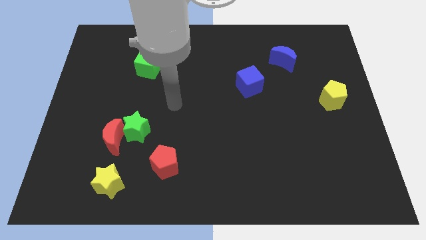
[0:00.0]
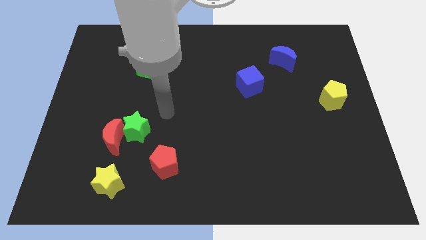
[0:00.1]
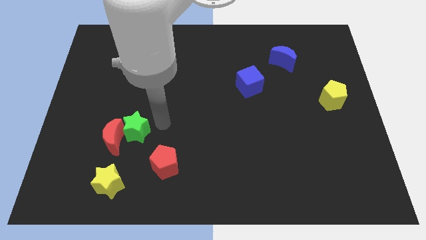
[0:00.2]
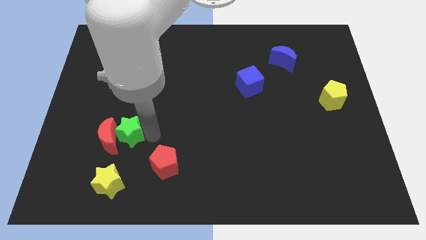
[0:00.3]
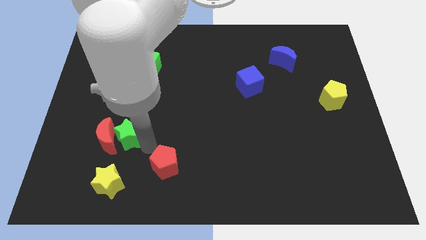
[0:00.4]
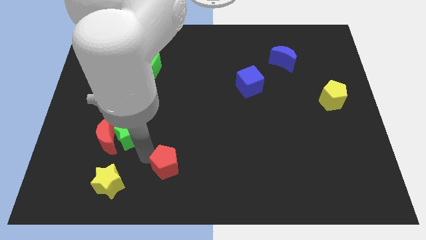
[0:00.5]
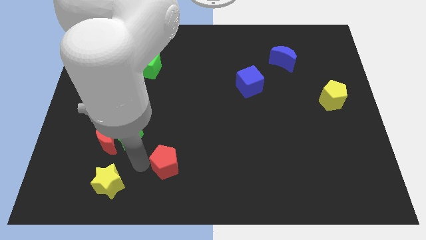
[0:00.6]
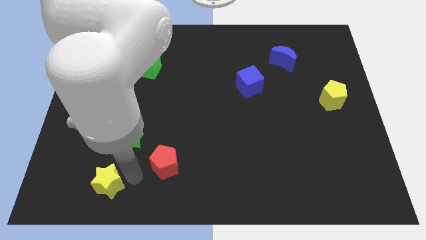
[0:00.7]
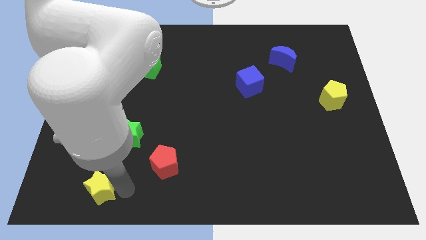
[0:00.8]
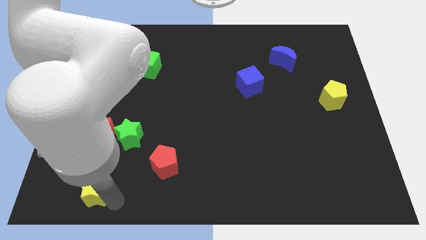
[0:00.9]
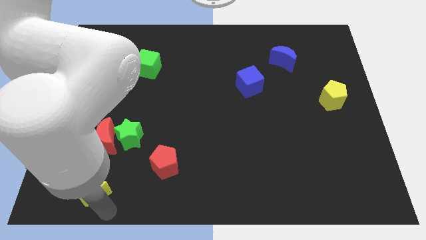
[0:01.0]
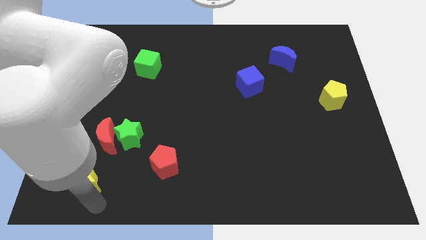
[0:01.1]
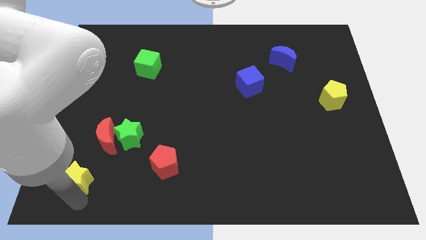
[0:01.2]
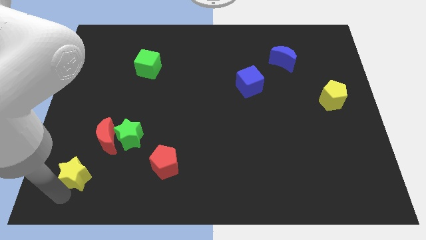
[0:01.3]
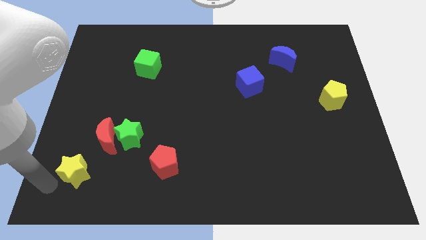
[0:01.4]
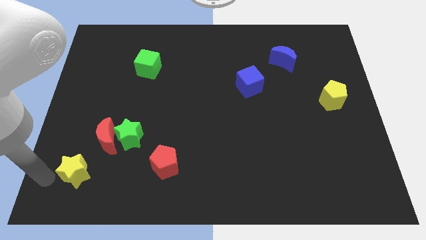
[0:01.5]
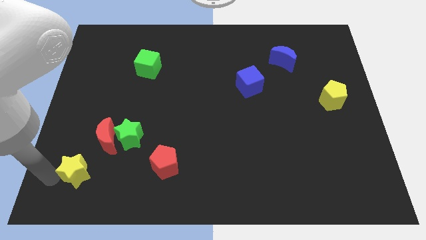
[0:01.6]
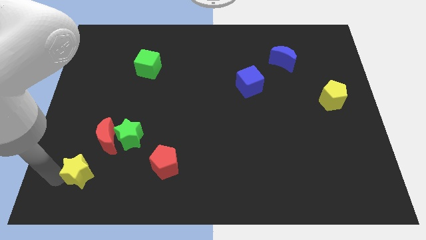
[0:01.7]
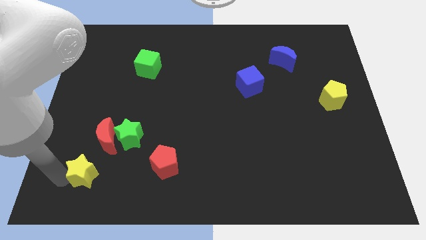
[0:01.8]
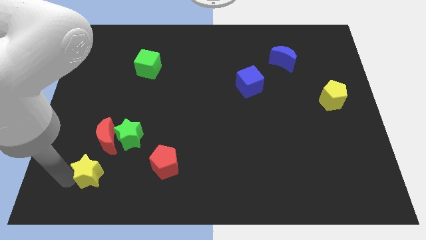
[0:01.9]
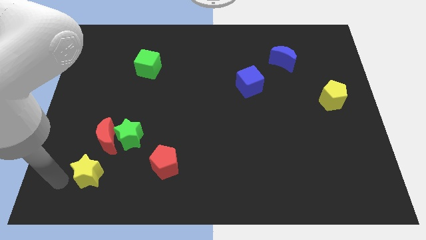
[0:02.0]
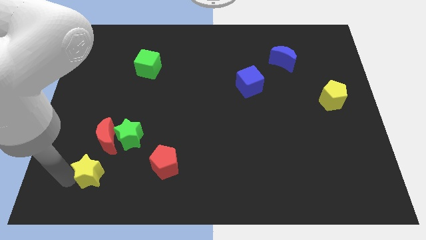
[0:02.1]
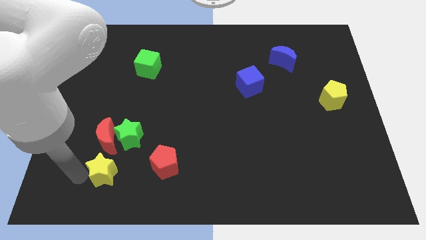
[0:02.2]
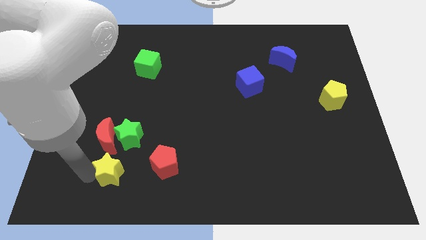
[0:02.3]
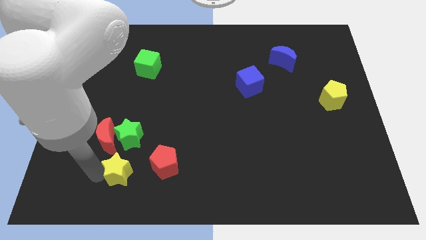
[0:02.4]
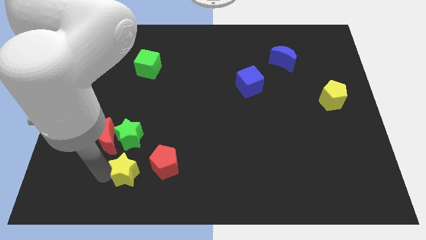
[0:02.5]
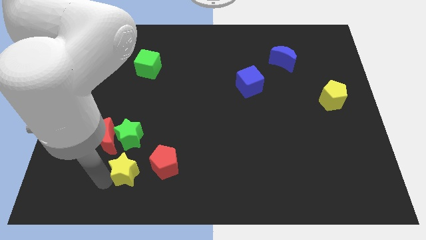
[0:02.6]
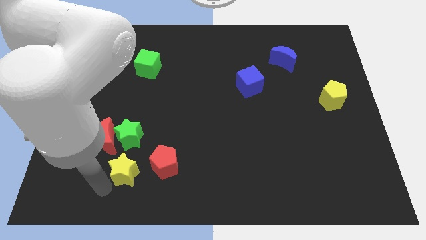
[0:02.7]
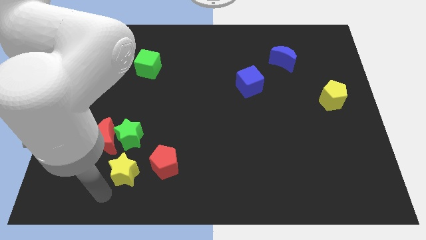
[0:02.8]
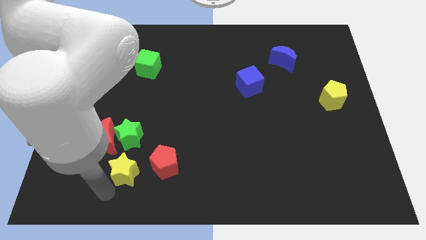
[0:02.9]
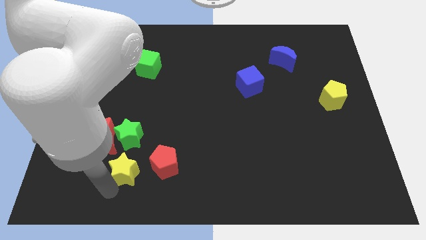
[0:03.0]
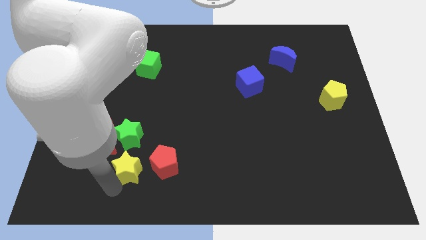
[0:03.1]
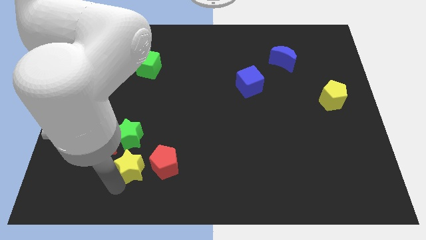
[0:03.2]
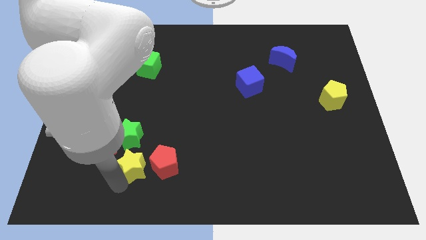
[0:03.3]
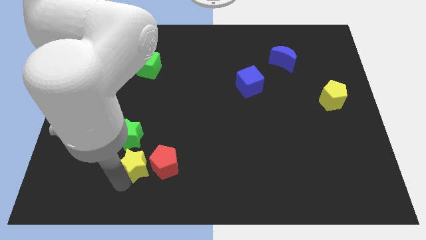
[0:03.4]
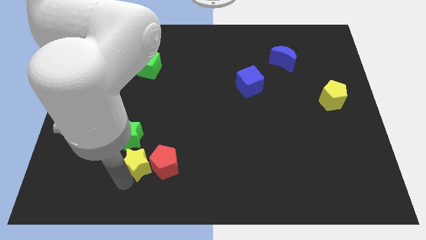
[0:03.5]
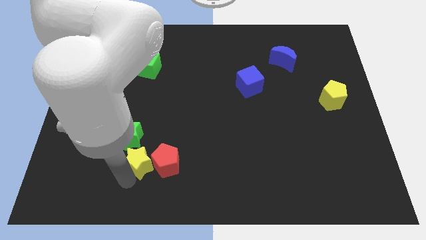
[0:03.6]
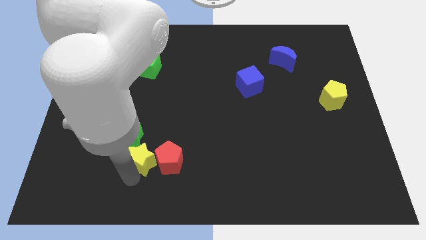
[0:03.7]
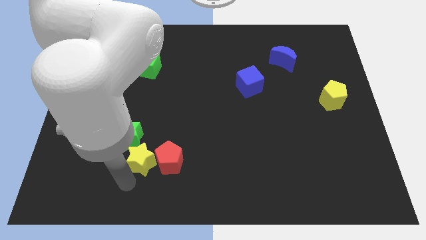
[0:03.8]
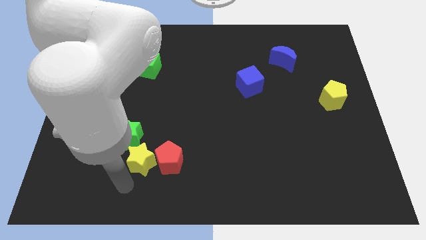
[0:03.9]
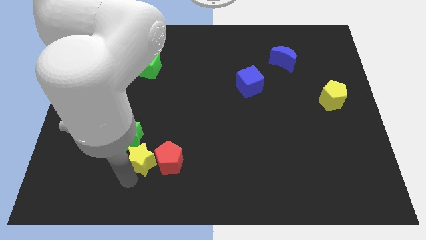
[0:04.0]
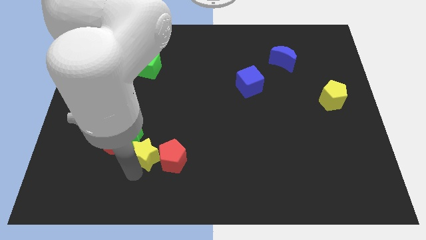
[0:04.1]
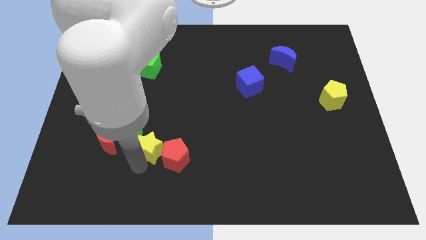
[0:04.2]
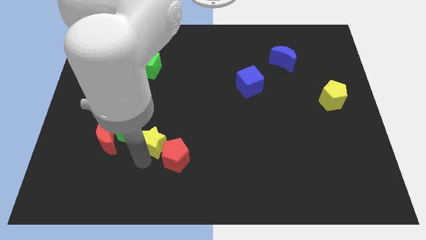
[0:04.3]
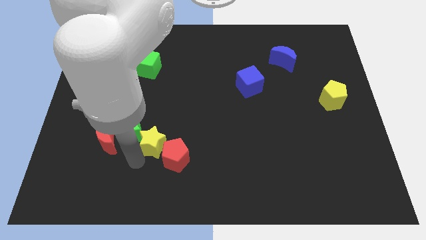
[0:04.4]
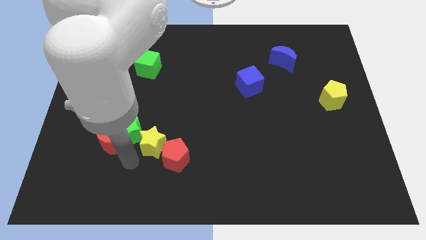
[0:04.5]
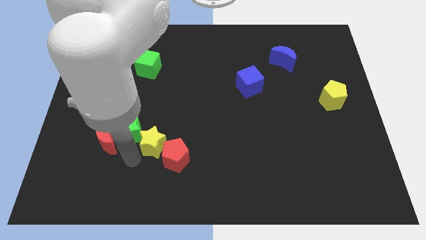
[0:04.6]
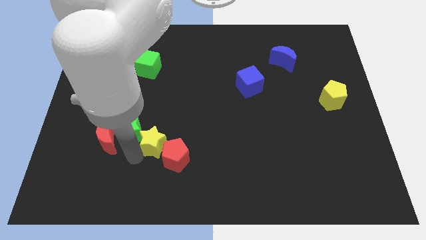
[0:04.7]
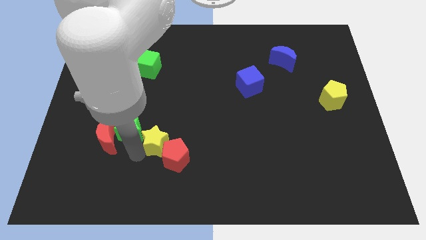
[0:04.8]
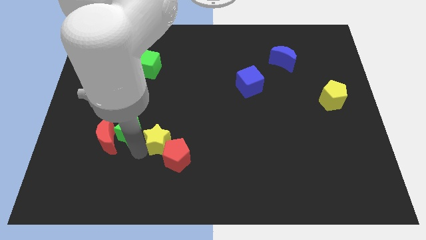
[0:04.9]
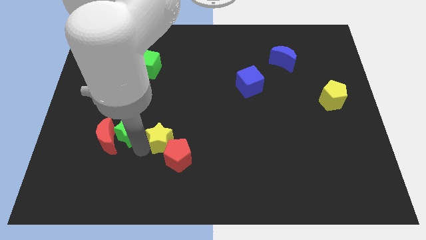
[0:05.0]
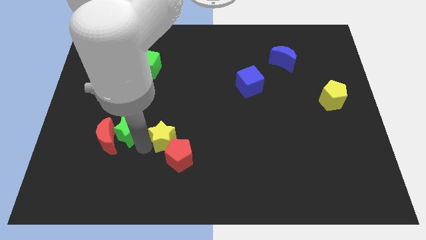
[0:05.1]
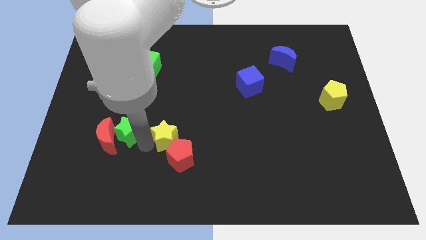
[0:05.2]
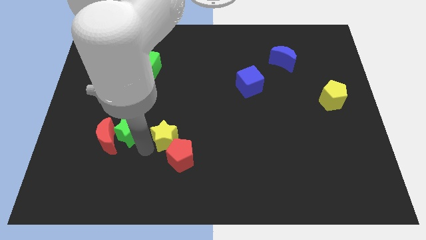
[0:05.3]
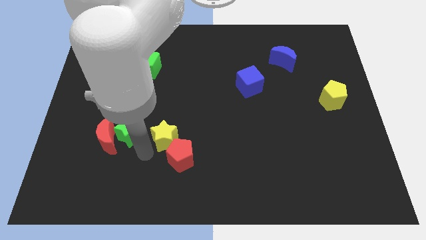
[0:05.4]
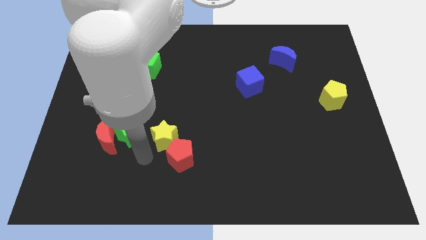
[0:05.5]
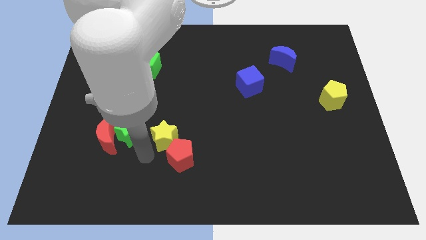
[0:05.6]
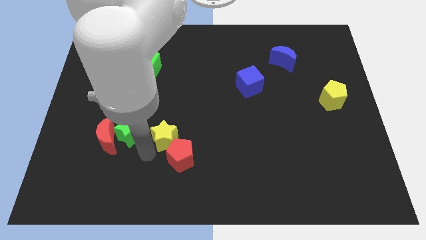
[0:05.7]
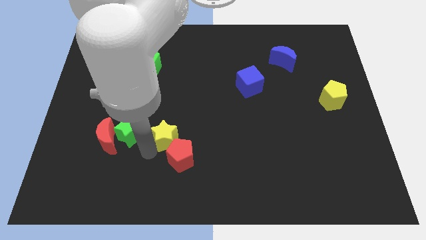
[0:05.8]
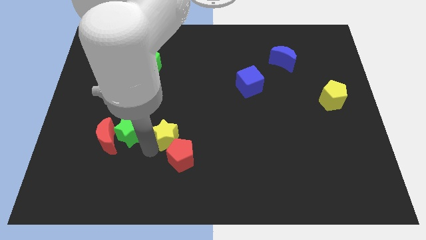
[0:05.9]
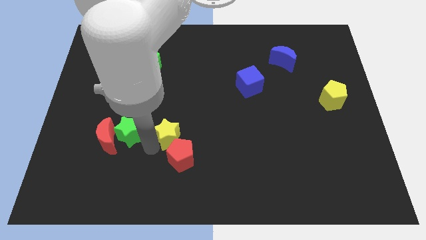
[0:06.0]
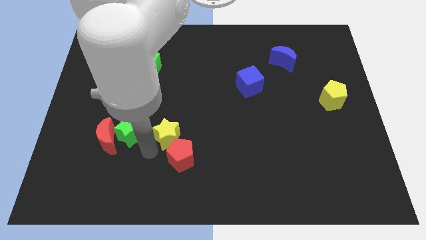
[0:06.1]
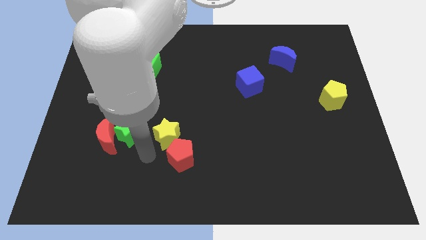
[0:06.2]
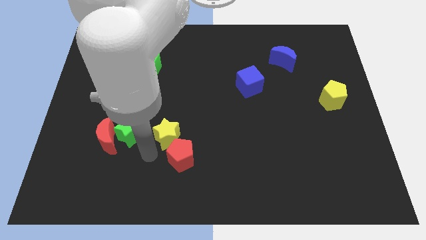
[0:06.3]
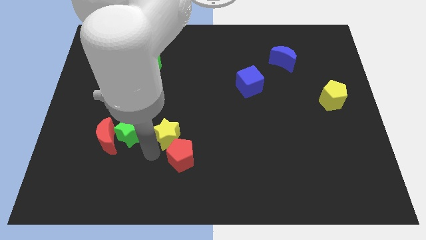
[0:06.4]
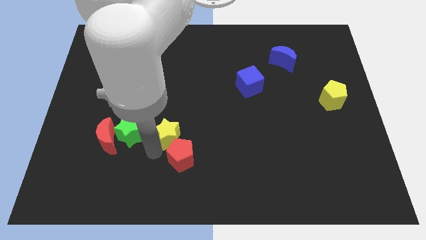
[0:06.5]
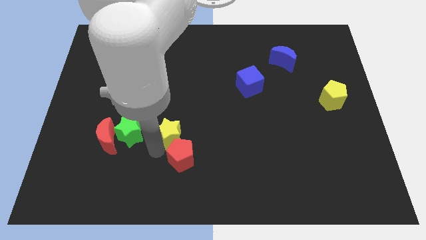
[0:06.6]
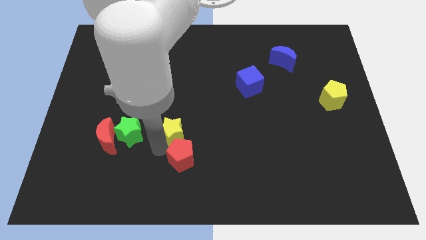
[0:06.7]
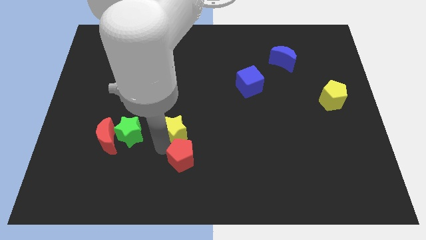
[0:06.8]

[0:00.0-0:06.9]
move the yellow star to the center of the board

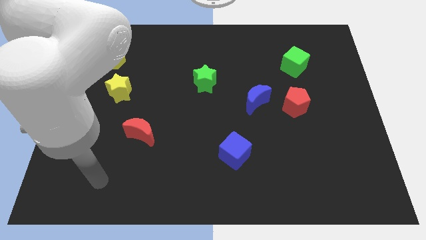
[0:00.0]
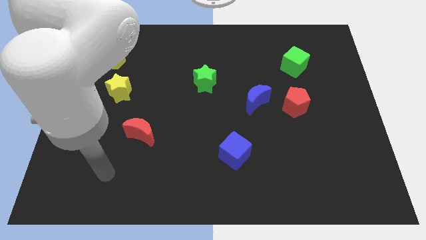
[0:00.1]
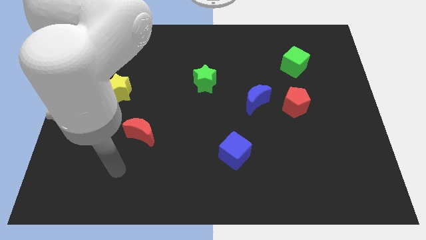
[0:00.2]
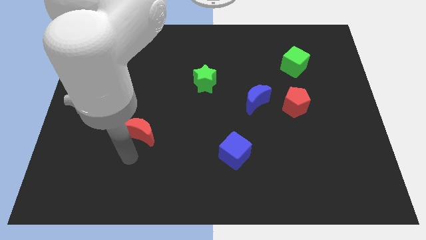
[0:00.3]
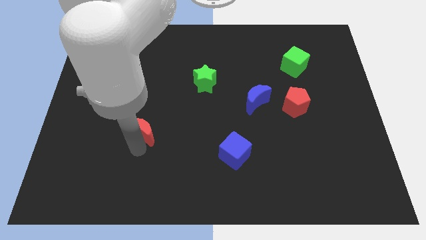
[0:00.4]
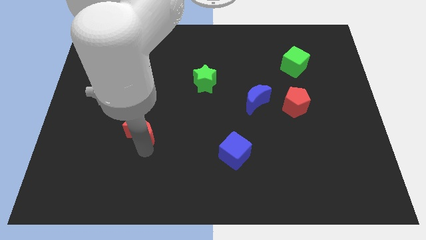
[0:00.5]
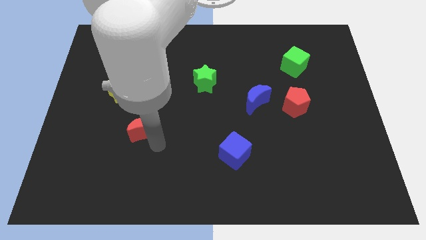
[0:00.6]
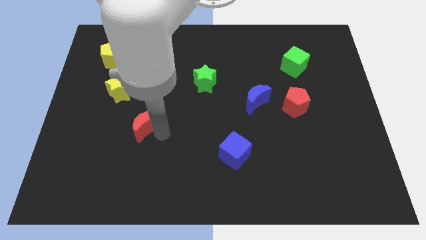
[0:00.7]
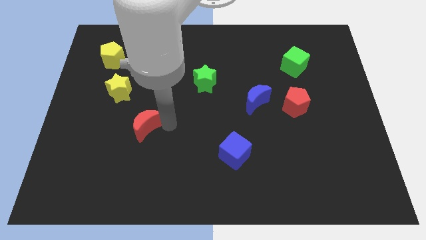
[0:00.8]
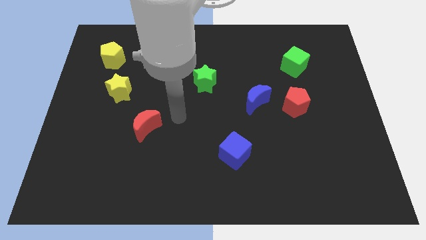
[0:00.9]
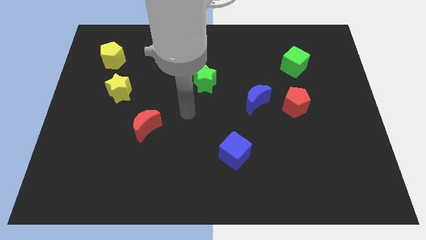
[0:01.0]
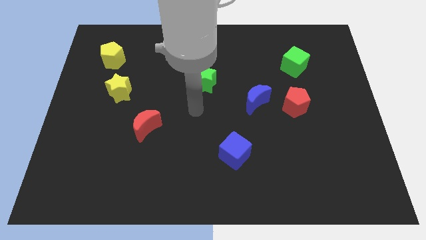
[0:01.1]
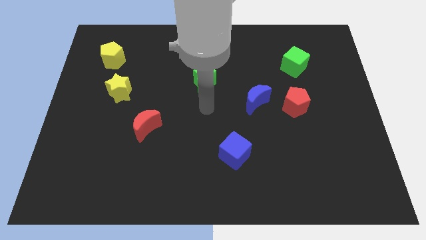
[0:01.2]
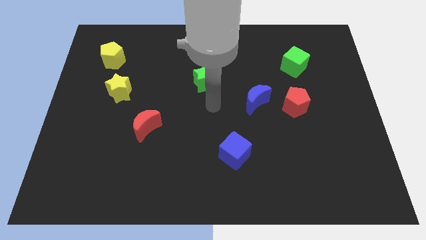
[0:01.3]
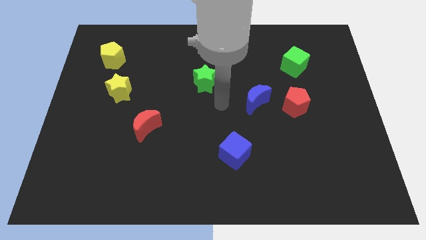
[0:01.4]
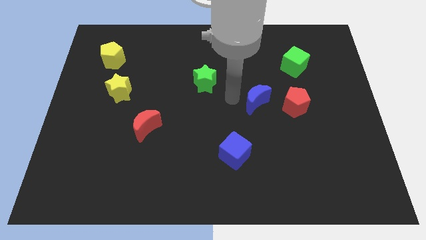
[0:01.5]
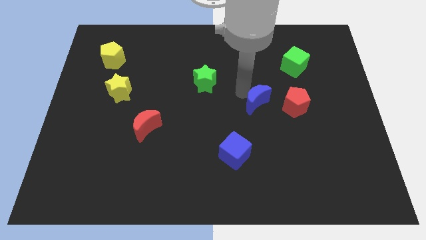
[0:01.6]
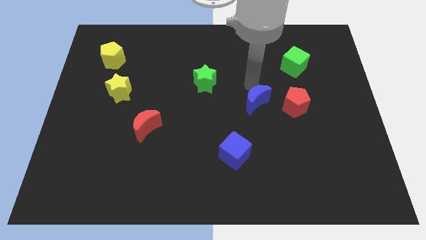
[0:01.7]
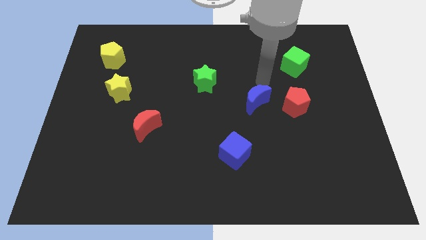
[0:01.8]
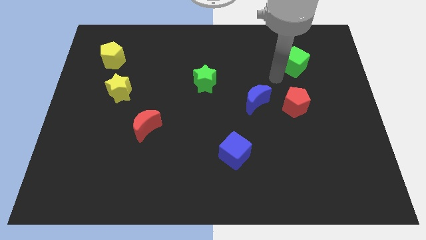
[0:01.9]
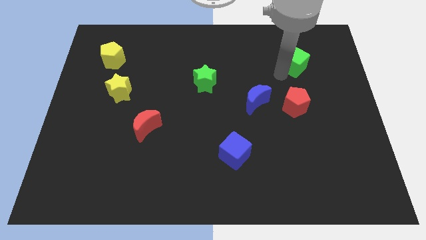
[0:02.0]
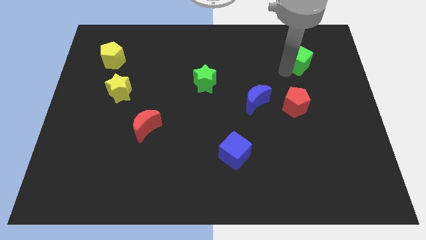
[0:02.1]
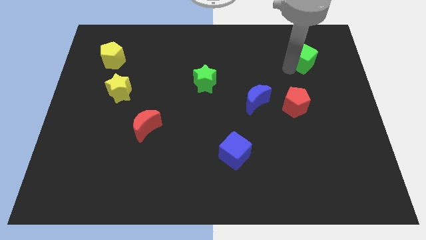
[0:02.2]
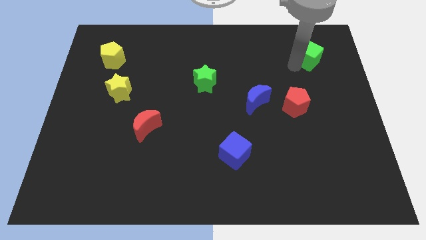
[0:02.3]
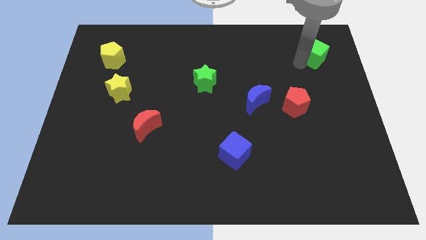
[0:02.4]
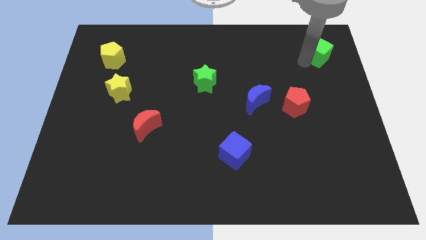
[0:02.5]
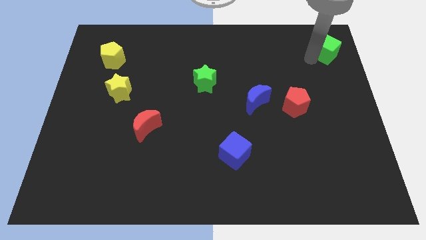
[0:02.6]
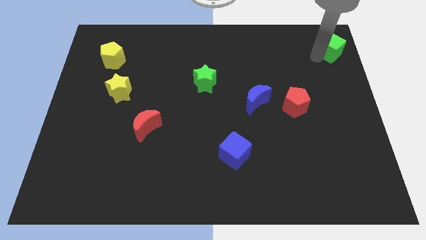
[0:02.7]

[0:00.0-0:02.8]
slide the green cube to the top right of the board
